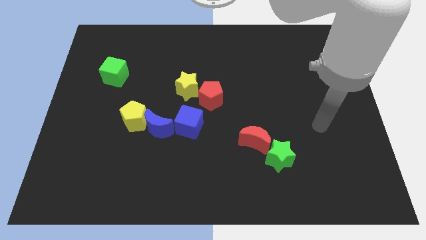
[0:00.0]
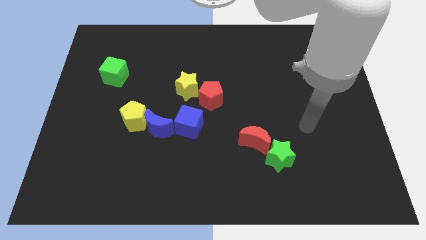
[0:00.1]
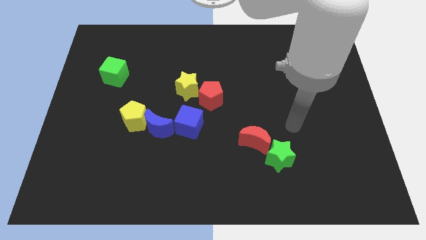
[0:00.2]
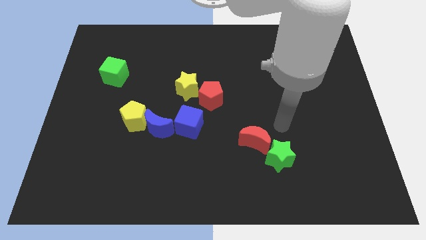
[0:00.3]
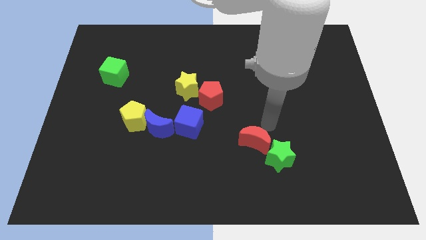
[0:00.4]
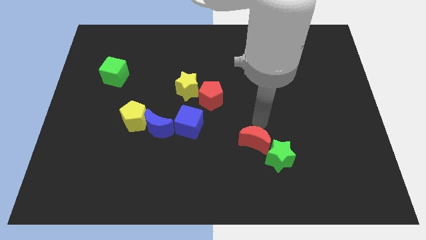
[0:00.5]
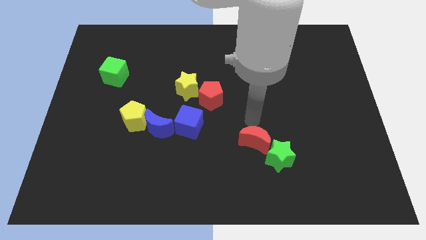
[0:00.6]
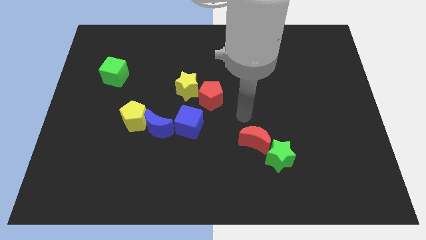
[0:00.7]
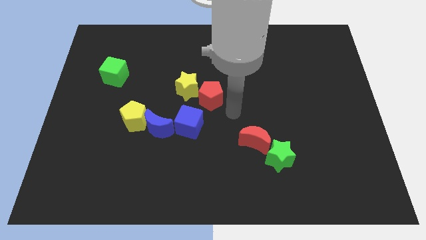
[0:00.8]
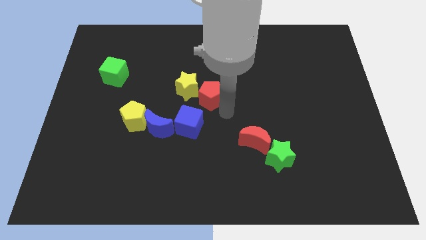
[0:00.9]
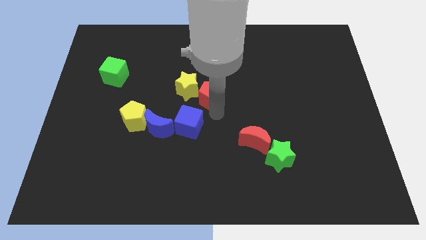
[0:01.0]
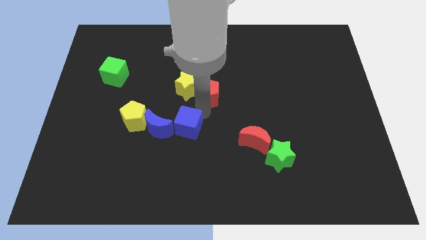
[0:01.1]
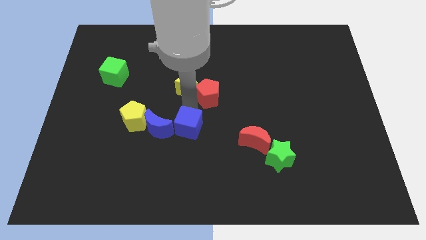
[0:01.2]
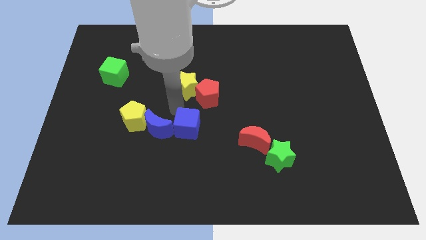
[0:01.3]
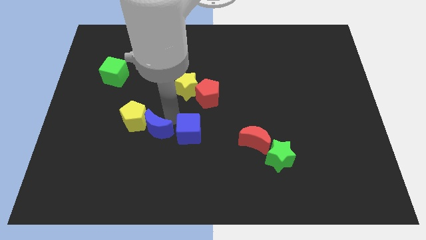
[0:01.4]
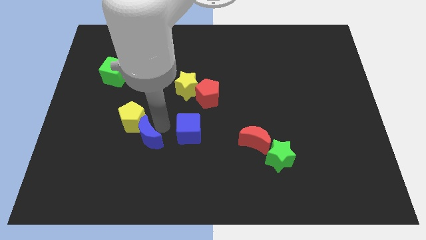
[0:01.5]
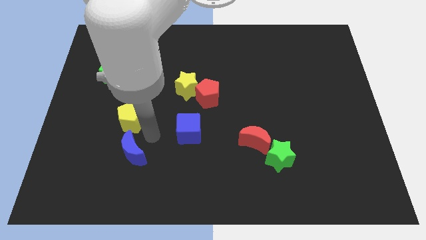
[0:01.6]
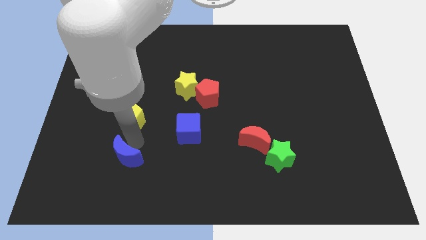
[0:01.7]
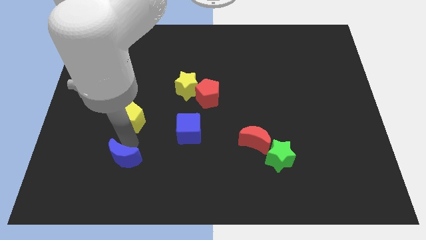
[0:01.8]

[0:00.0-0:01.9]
separate the yellow pentagon from the blue moon

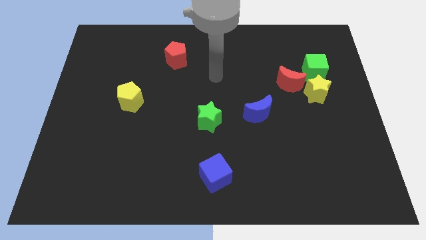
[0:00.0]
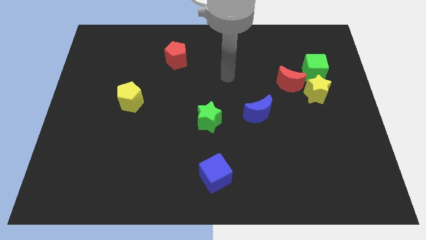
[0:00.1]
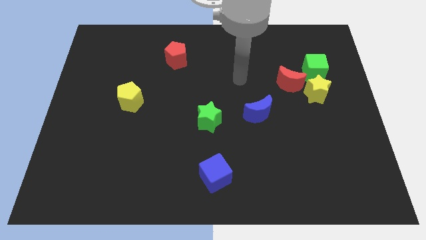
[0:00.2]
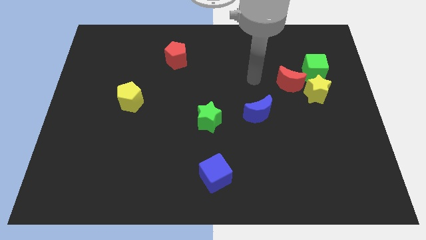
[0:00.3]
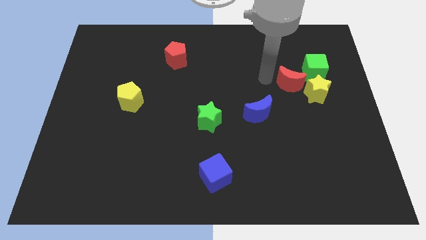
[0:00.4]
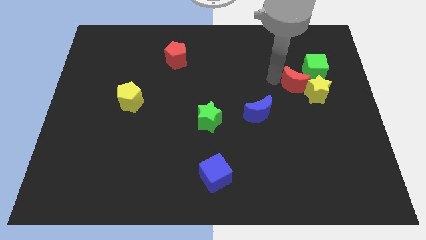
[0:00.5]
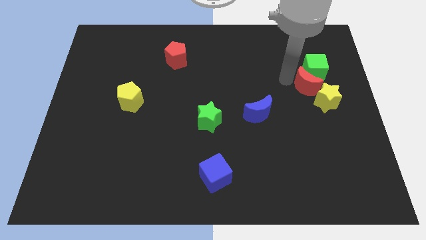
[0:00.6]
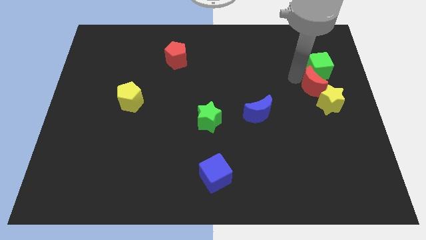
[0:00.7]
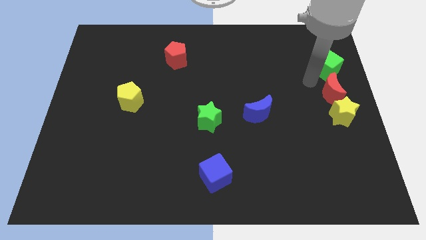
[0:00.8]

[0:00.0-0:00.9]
separate the yellow star from the red moon and green cube

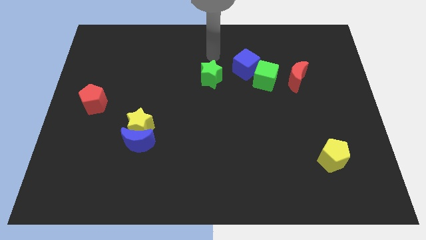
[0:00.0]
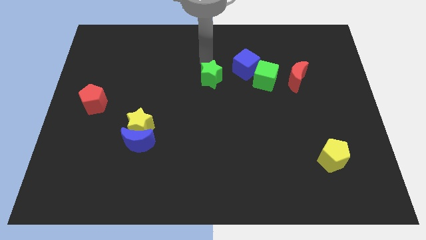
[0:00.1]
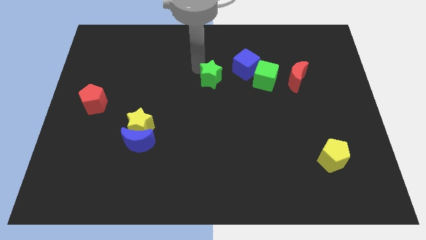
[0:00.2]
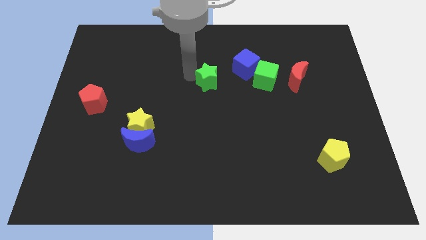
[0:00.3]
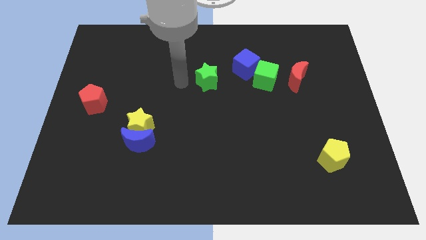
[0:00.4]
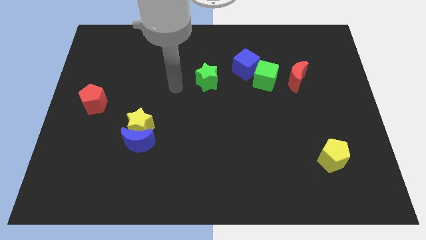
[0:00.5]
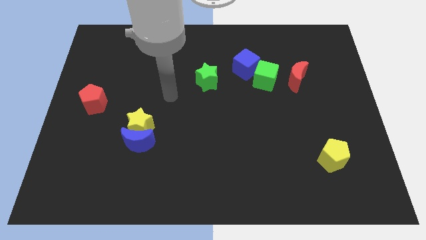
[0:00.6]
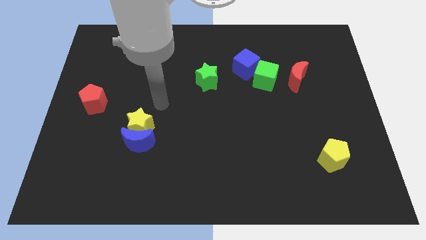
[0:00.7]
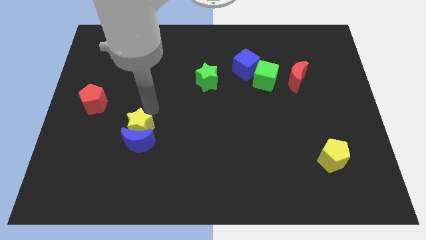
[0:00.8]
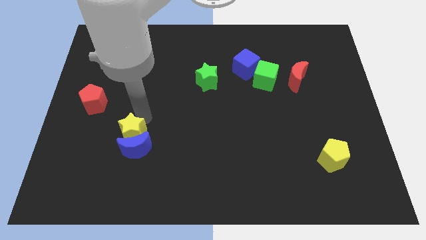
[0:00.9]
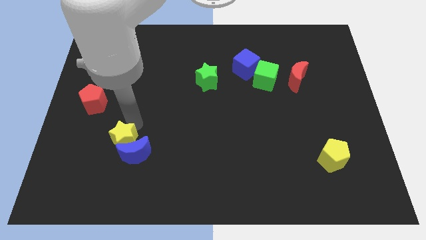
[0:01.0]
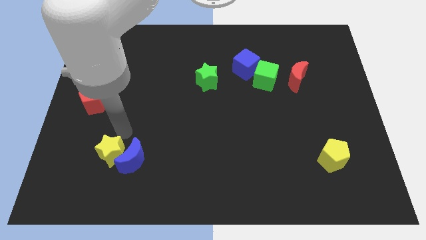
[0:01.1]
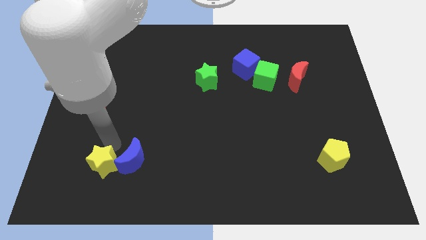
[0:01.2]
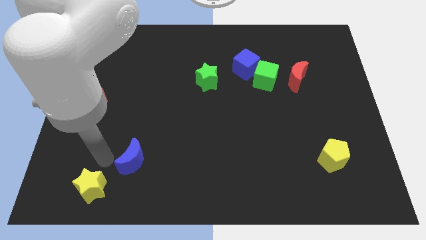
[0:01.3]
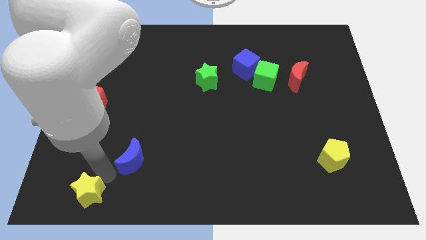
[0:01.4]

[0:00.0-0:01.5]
move the blue moon away from the yellow star

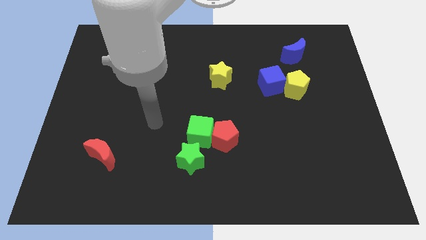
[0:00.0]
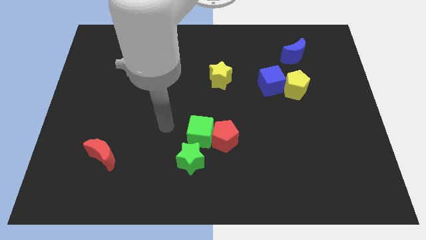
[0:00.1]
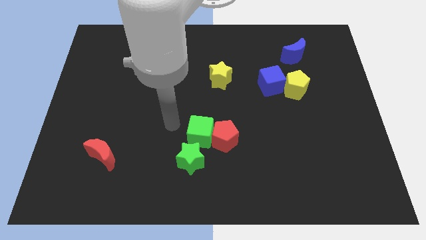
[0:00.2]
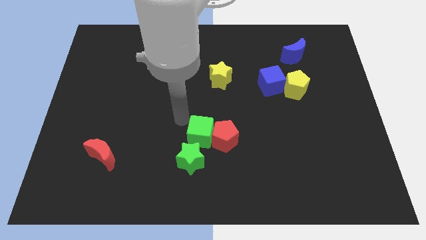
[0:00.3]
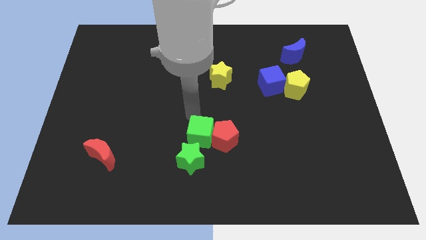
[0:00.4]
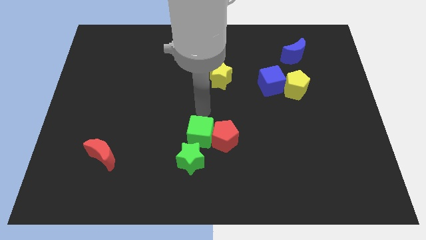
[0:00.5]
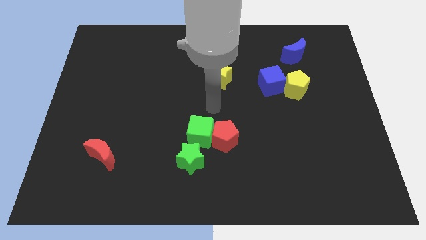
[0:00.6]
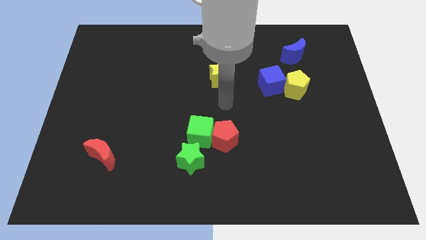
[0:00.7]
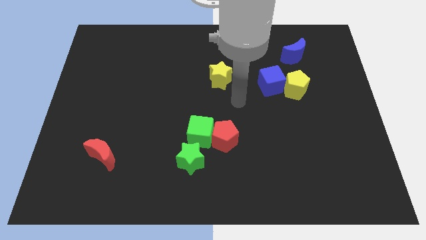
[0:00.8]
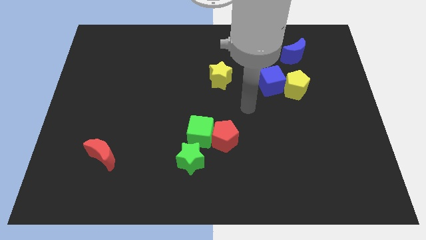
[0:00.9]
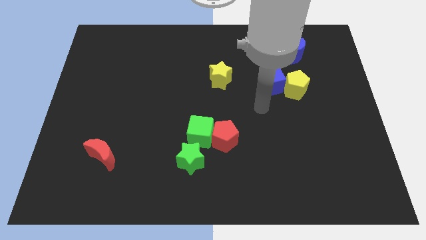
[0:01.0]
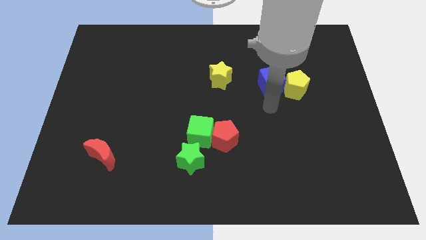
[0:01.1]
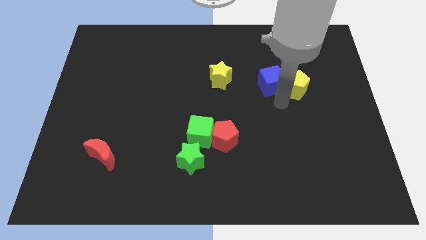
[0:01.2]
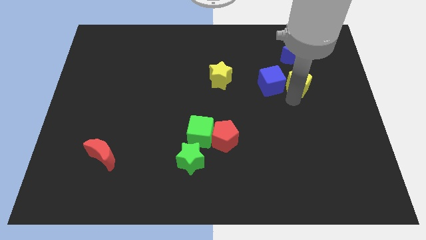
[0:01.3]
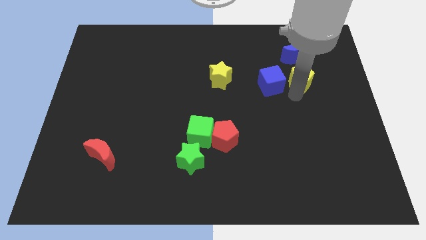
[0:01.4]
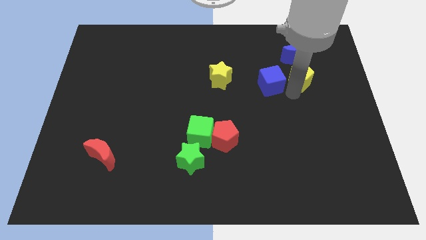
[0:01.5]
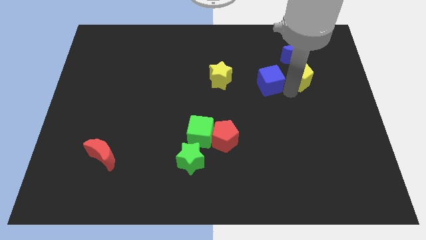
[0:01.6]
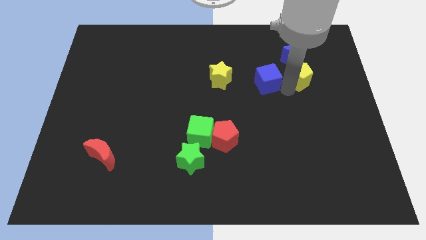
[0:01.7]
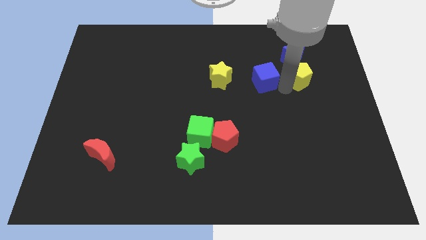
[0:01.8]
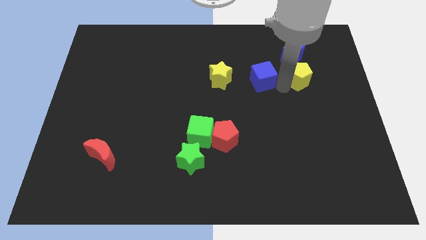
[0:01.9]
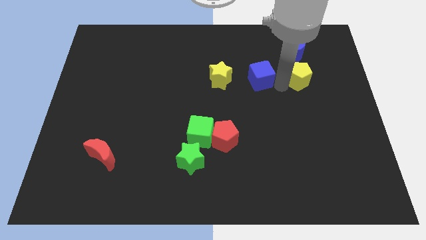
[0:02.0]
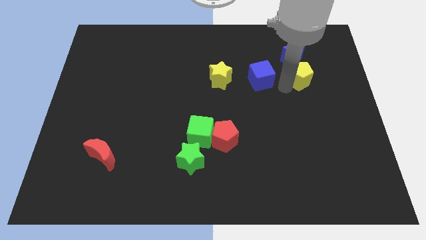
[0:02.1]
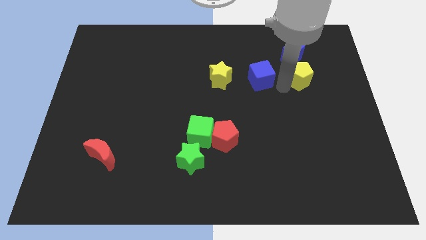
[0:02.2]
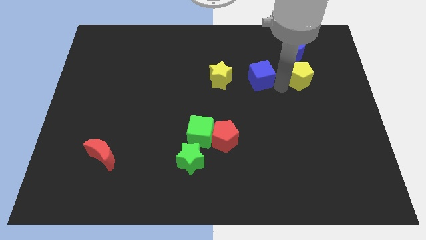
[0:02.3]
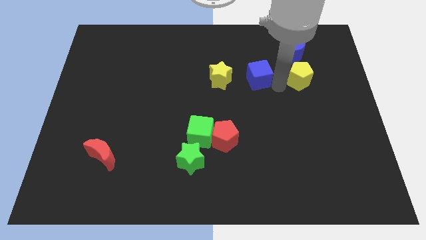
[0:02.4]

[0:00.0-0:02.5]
separate the blue cube from the yellow pentagon

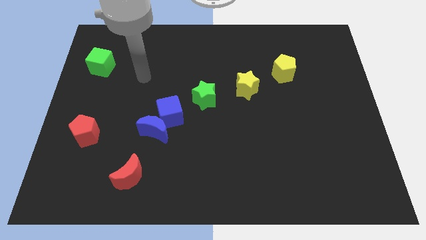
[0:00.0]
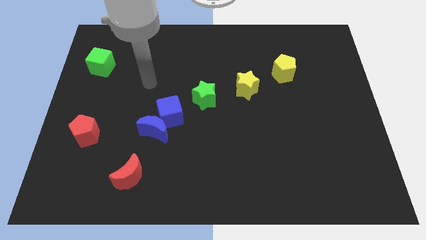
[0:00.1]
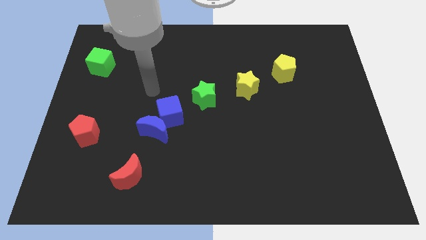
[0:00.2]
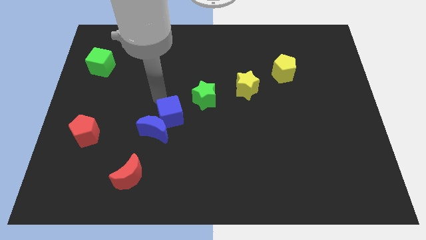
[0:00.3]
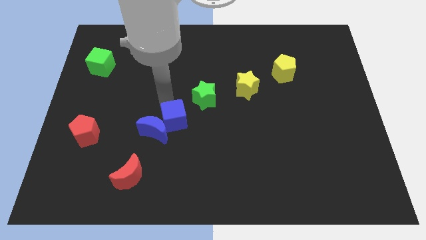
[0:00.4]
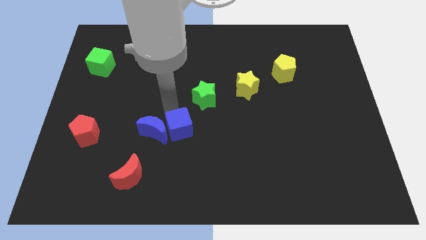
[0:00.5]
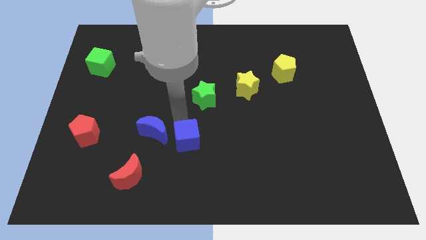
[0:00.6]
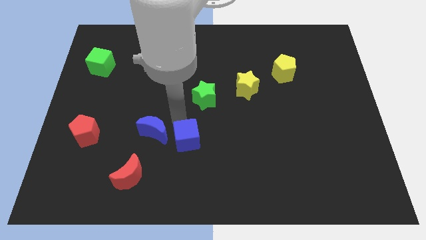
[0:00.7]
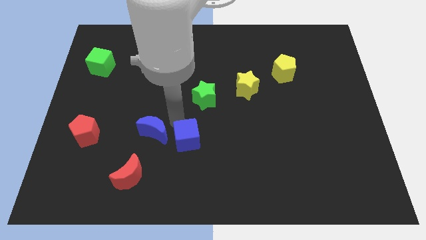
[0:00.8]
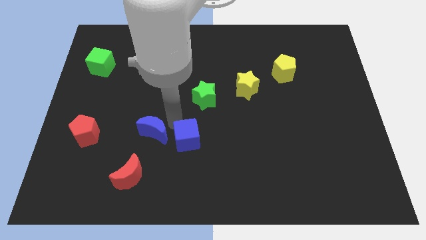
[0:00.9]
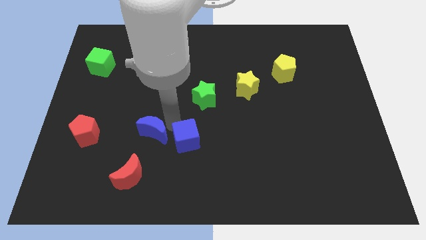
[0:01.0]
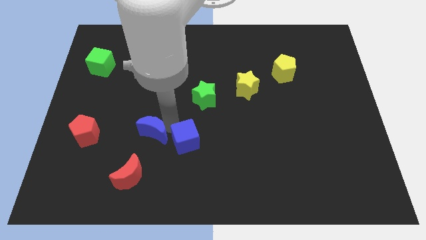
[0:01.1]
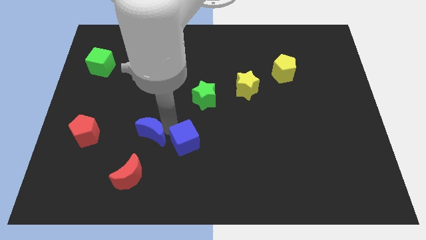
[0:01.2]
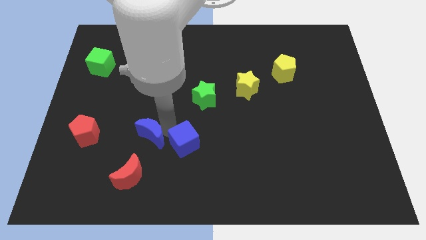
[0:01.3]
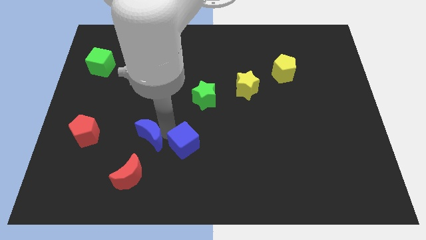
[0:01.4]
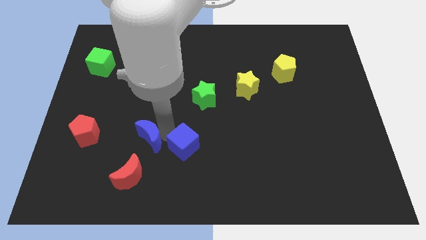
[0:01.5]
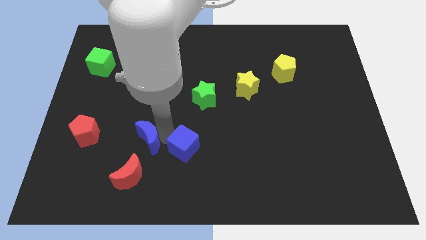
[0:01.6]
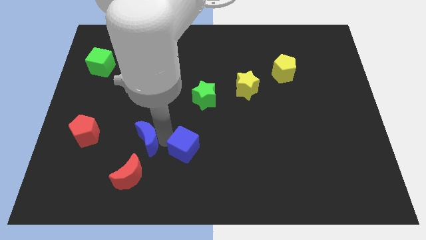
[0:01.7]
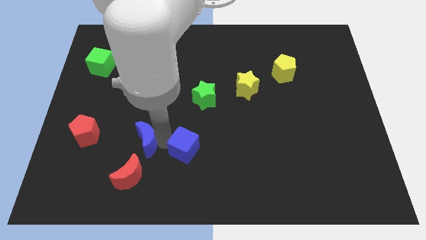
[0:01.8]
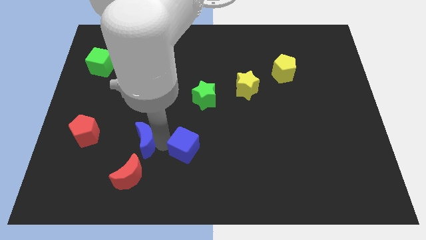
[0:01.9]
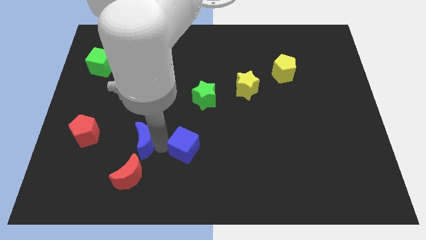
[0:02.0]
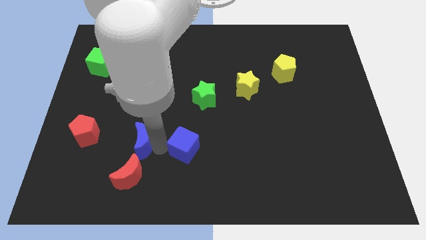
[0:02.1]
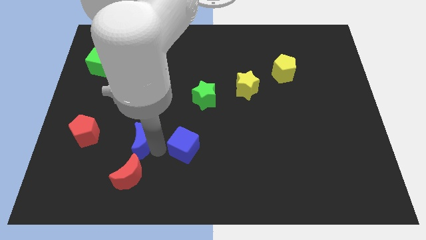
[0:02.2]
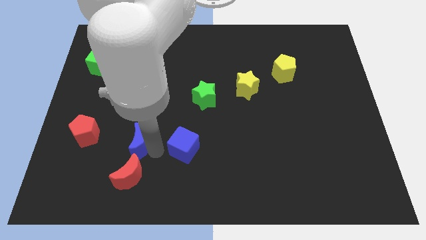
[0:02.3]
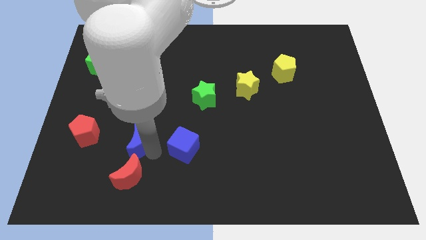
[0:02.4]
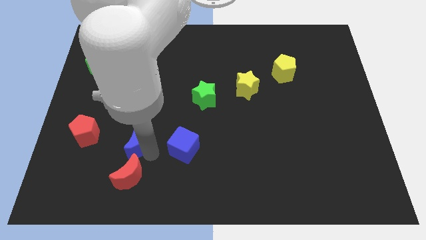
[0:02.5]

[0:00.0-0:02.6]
move the blue moon away from the blue cube
